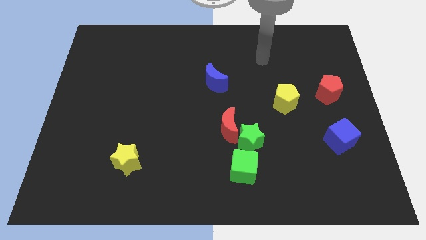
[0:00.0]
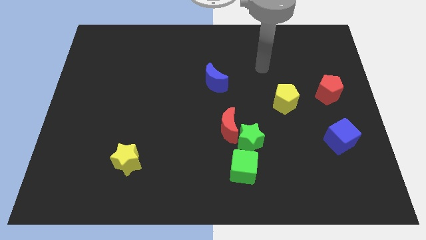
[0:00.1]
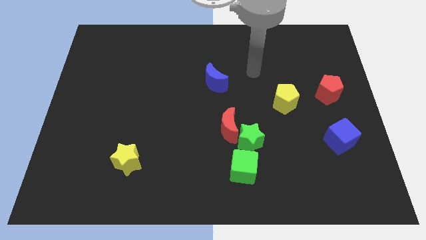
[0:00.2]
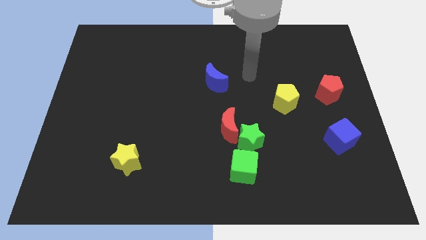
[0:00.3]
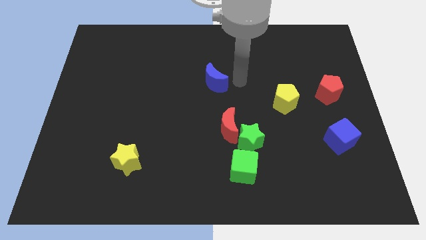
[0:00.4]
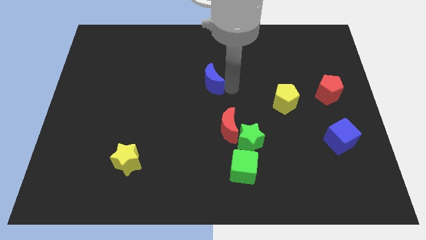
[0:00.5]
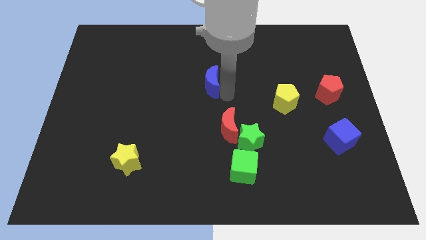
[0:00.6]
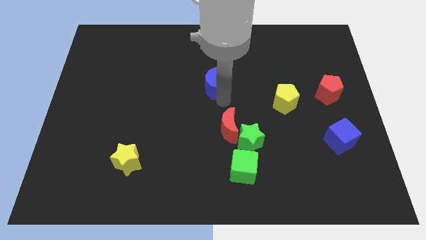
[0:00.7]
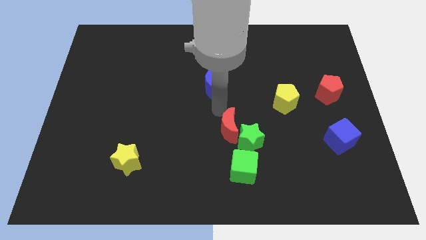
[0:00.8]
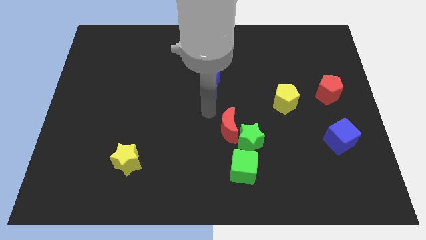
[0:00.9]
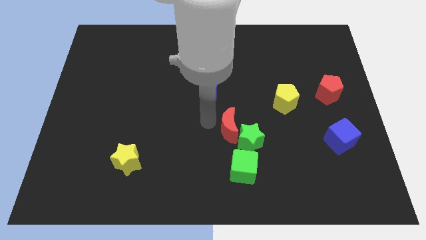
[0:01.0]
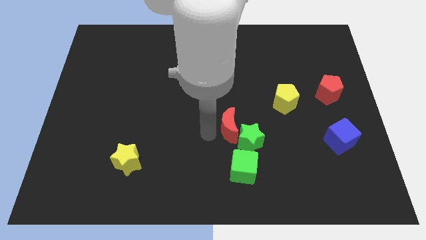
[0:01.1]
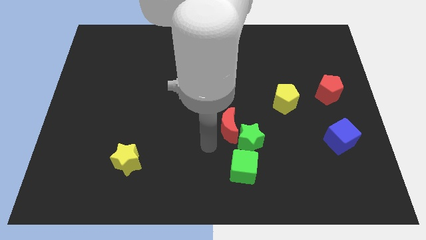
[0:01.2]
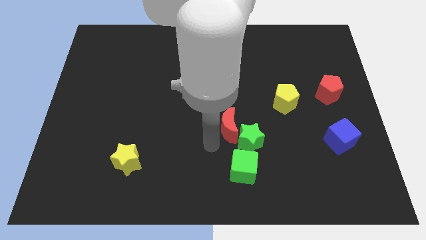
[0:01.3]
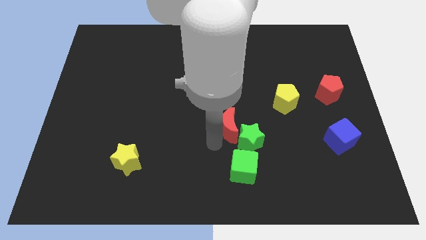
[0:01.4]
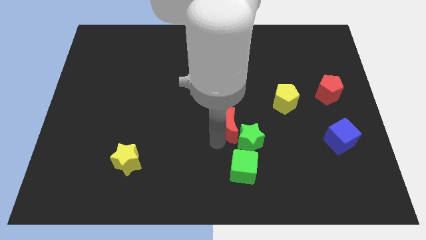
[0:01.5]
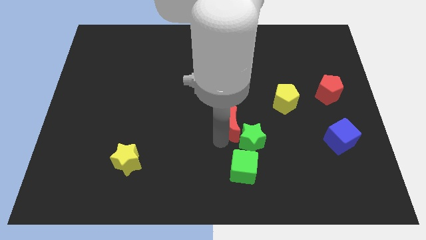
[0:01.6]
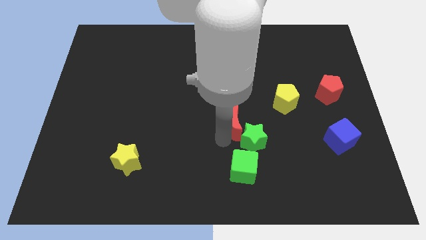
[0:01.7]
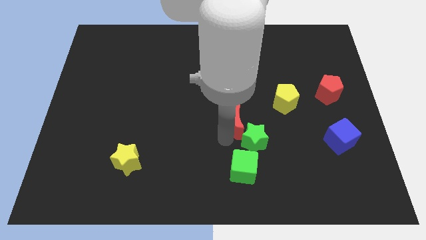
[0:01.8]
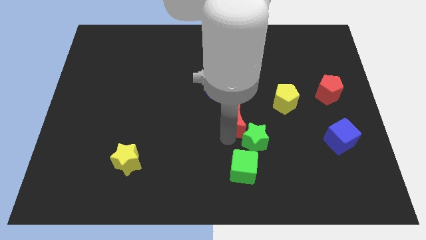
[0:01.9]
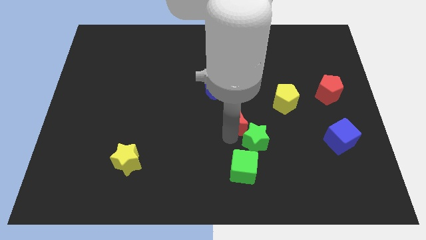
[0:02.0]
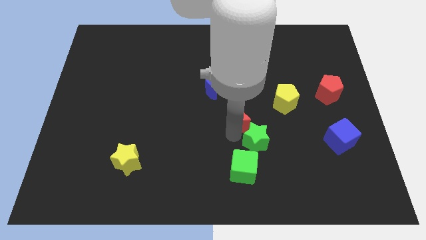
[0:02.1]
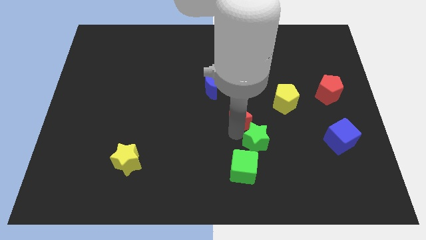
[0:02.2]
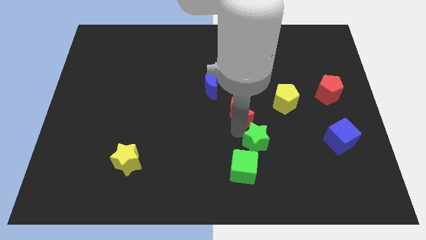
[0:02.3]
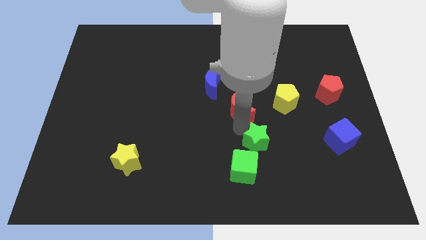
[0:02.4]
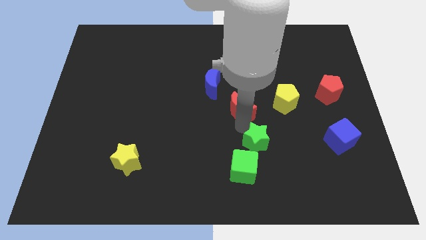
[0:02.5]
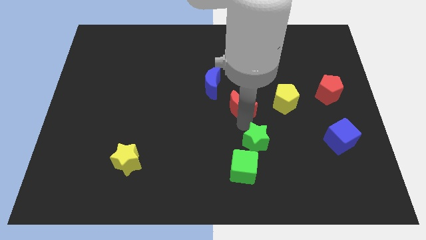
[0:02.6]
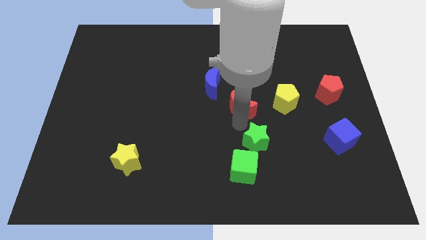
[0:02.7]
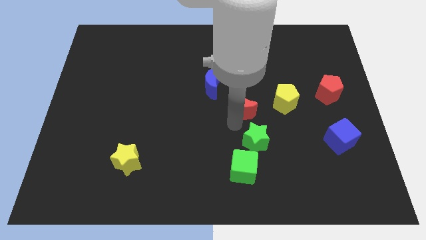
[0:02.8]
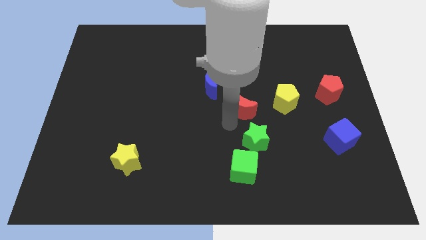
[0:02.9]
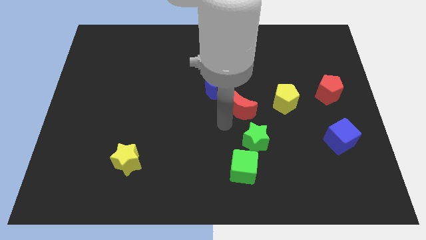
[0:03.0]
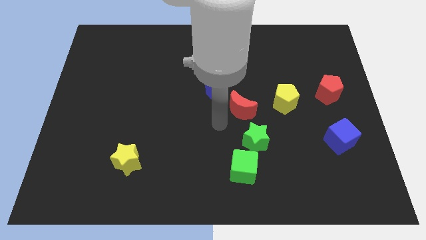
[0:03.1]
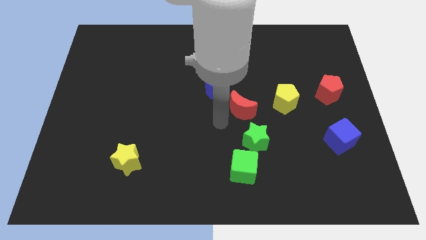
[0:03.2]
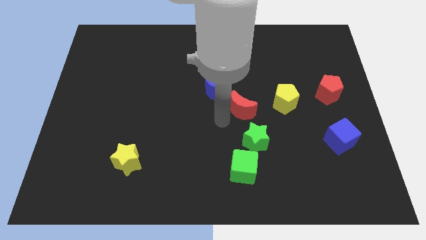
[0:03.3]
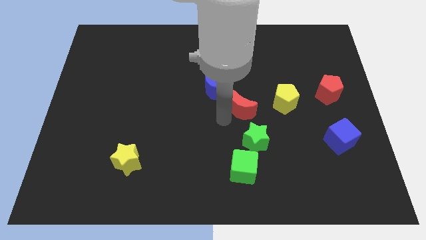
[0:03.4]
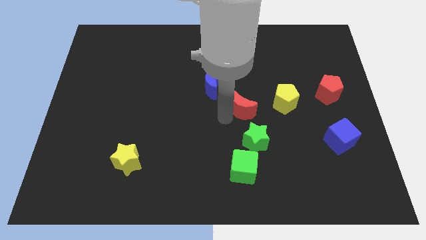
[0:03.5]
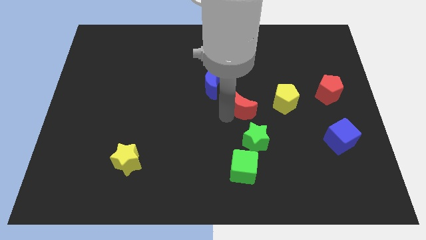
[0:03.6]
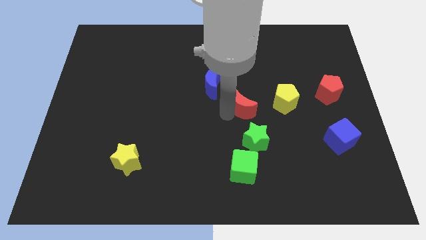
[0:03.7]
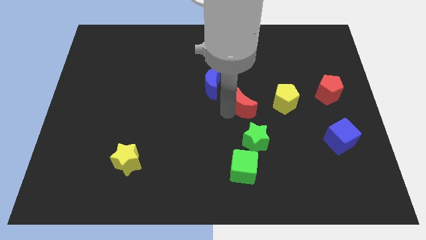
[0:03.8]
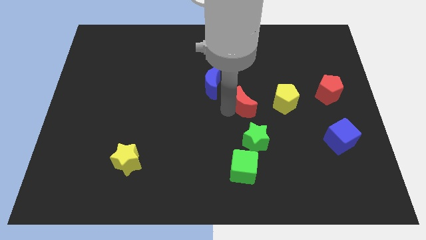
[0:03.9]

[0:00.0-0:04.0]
slide the red moon up and right a little

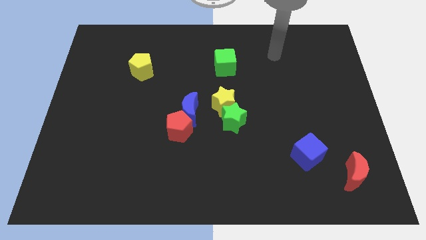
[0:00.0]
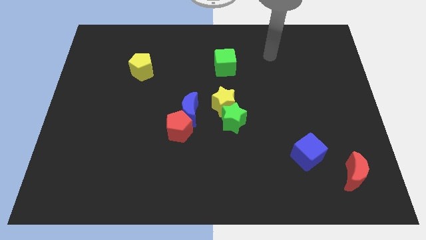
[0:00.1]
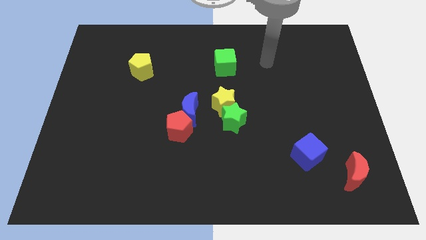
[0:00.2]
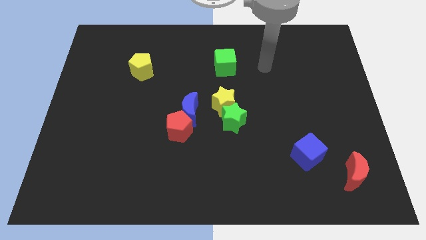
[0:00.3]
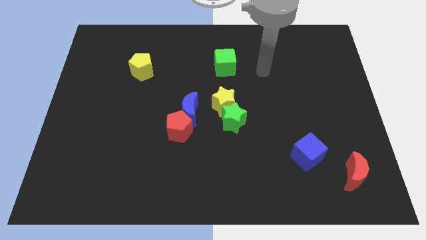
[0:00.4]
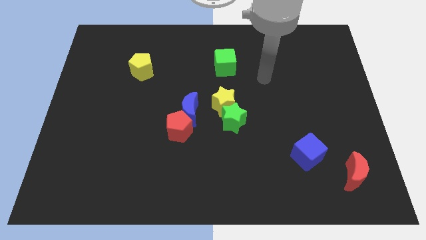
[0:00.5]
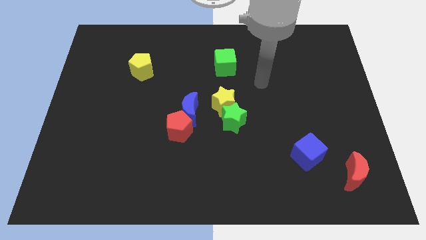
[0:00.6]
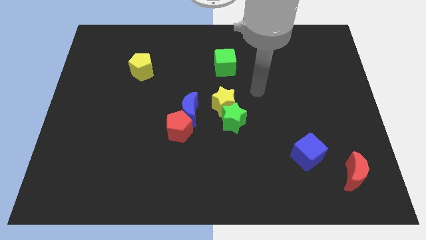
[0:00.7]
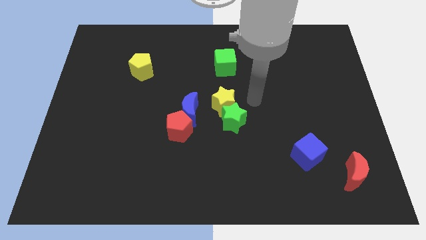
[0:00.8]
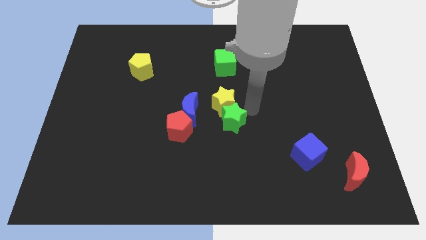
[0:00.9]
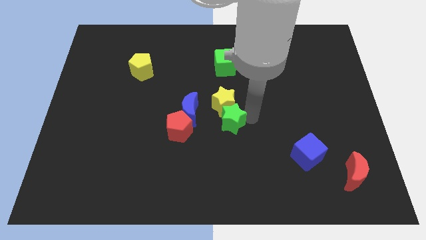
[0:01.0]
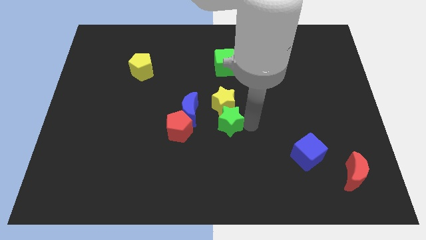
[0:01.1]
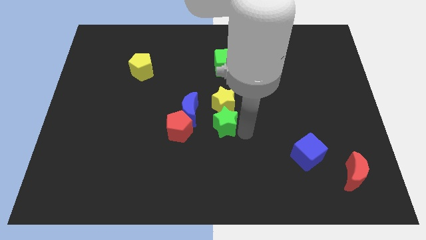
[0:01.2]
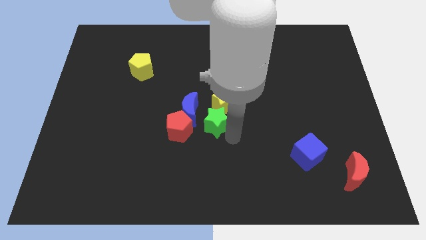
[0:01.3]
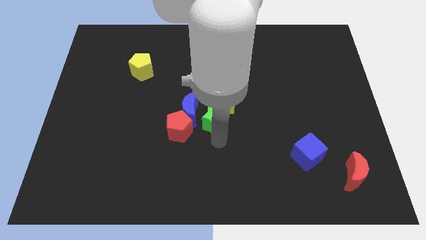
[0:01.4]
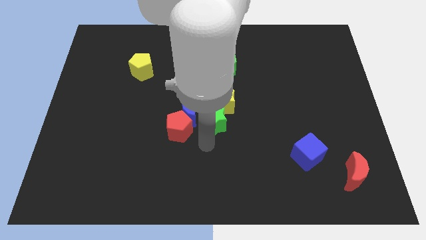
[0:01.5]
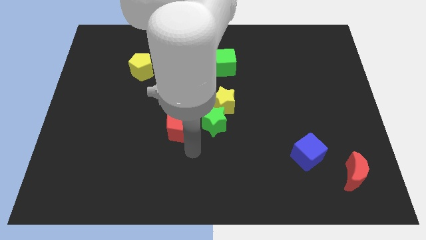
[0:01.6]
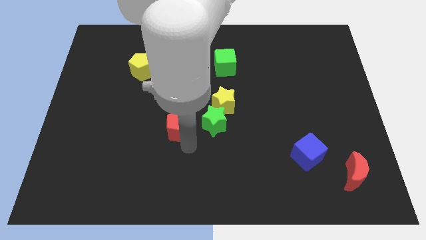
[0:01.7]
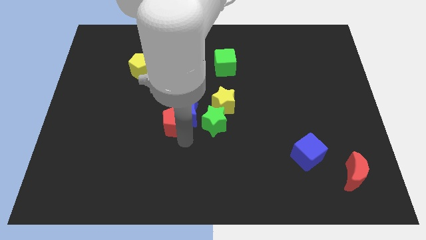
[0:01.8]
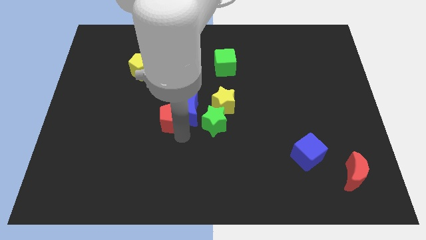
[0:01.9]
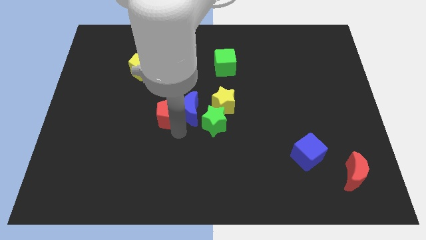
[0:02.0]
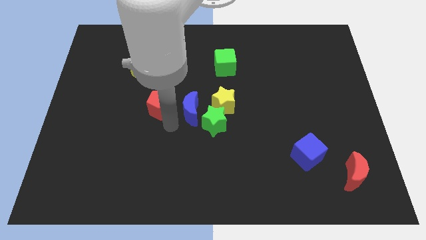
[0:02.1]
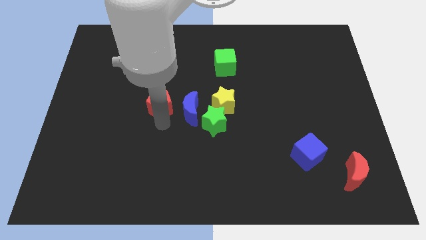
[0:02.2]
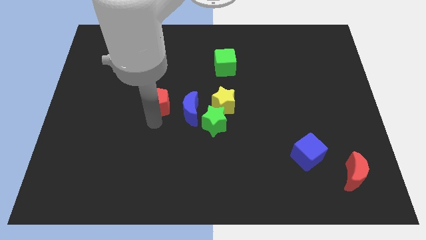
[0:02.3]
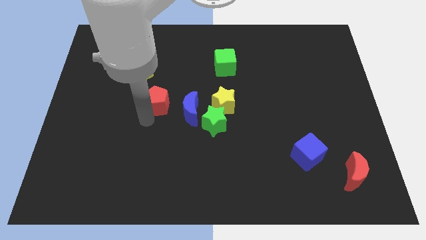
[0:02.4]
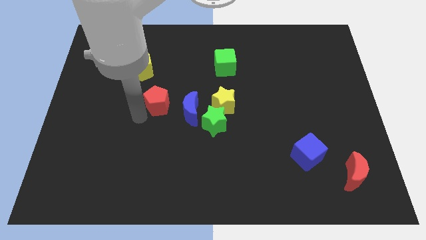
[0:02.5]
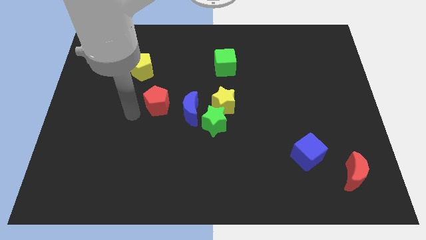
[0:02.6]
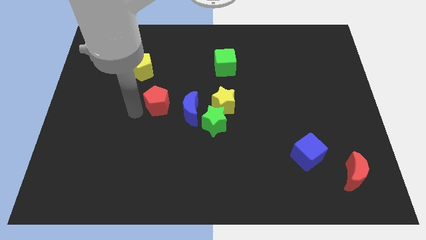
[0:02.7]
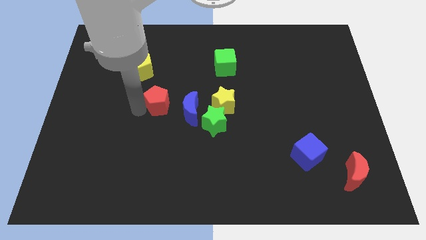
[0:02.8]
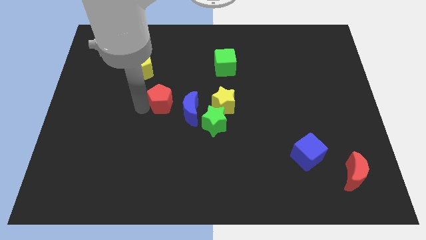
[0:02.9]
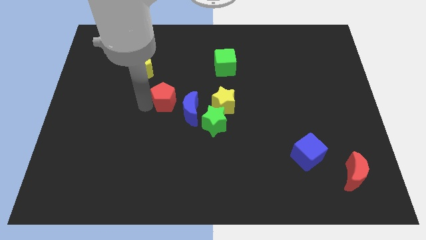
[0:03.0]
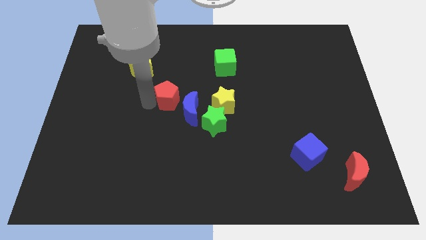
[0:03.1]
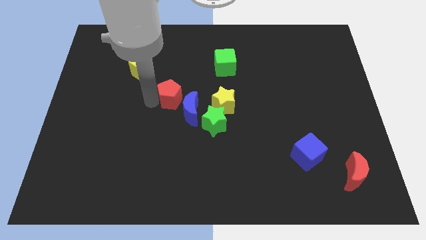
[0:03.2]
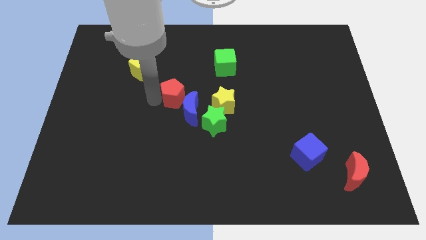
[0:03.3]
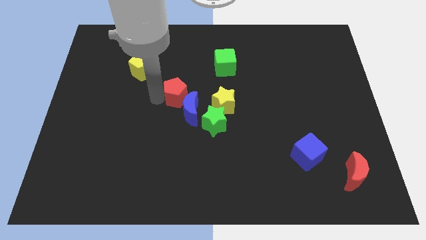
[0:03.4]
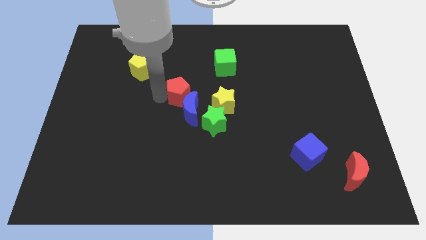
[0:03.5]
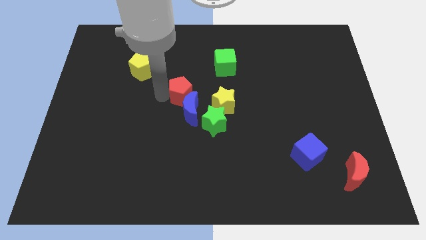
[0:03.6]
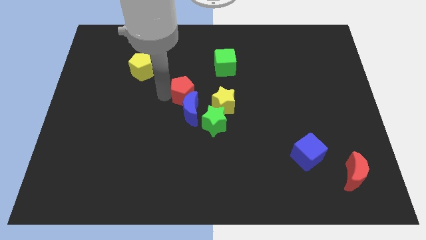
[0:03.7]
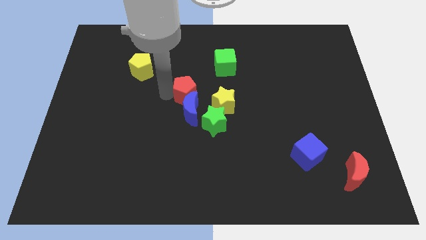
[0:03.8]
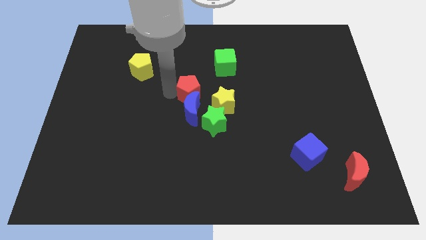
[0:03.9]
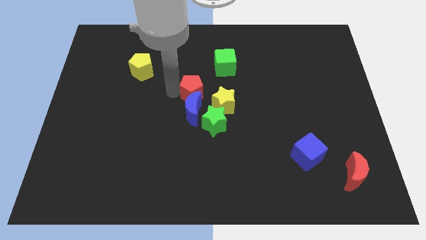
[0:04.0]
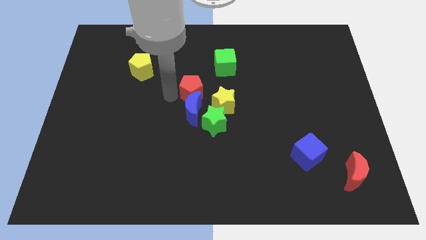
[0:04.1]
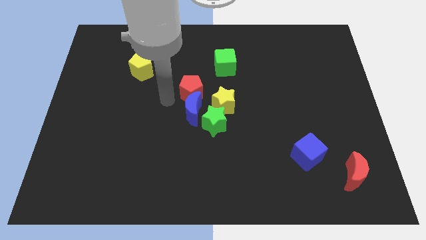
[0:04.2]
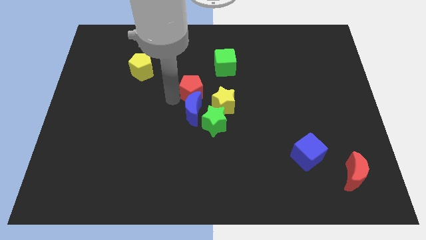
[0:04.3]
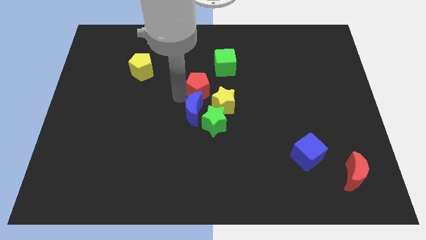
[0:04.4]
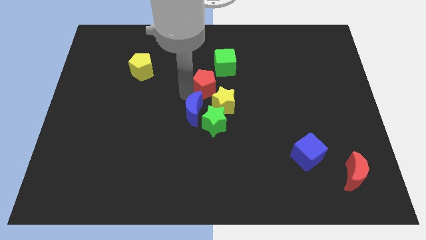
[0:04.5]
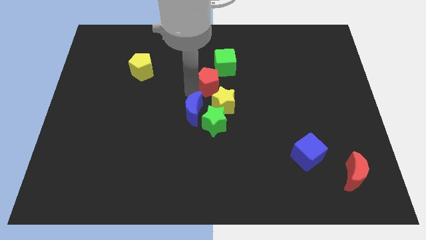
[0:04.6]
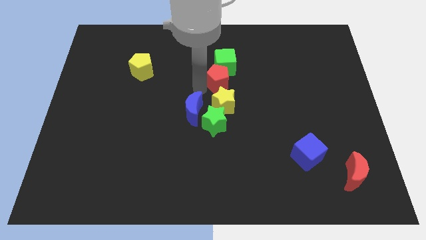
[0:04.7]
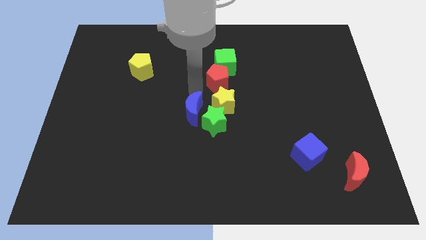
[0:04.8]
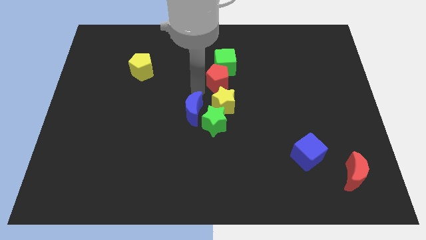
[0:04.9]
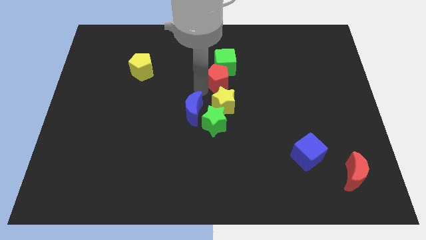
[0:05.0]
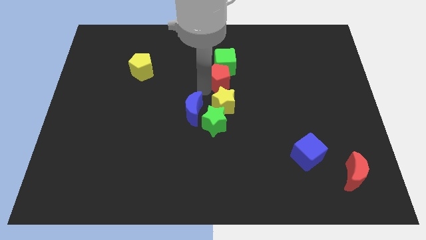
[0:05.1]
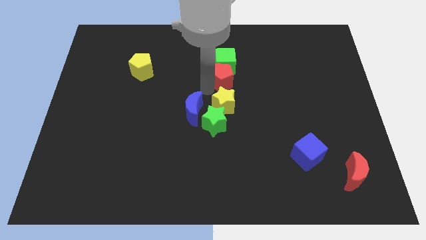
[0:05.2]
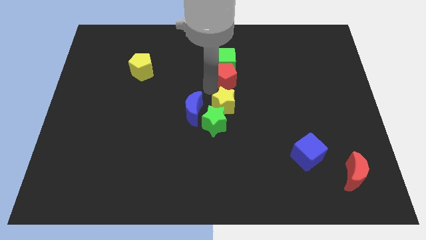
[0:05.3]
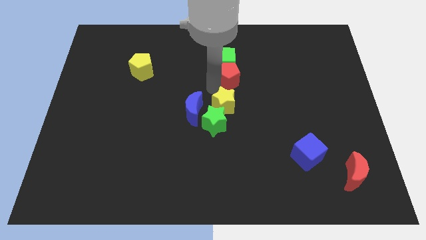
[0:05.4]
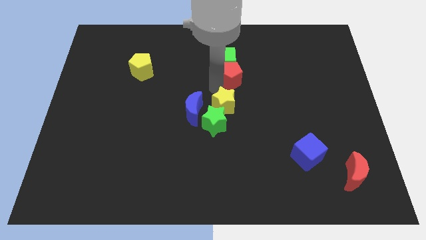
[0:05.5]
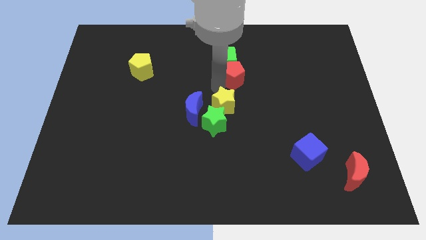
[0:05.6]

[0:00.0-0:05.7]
push the red pentagon upwards and to the right diagonally
